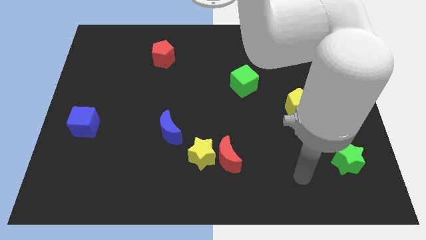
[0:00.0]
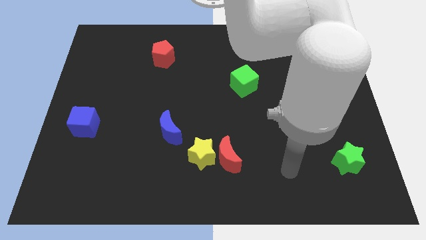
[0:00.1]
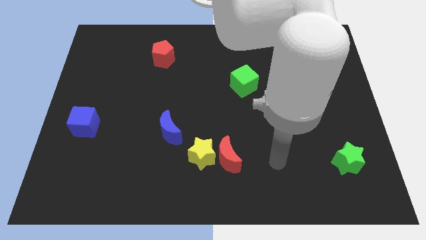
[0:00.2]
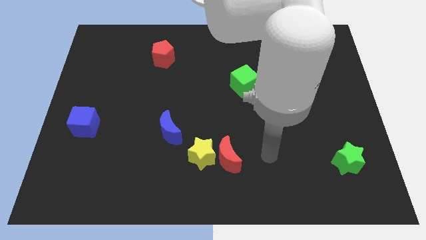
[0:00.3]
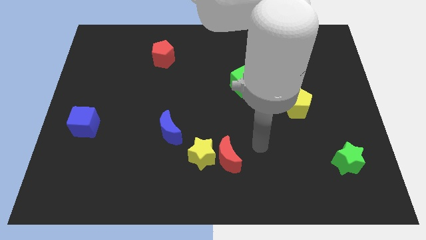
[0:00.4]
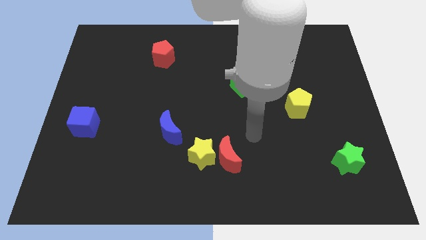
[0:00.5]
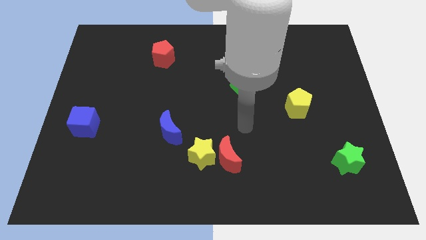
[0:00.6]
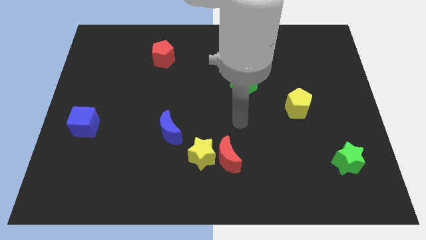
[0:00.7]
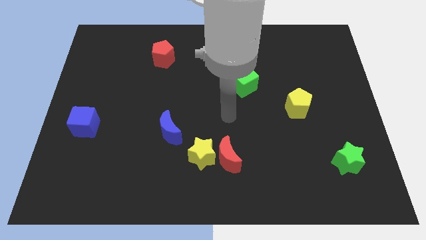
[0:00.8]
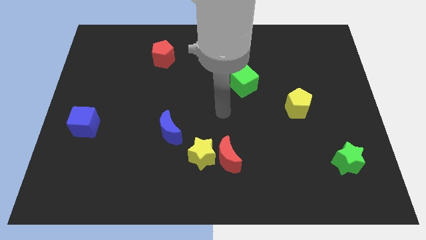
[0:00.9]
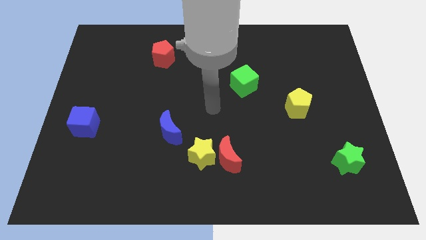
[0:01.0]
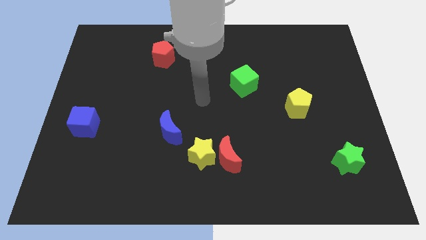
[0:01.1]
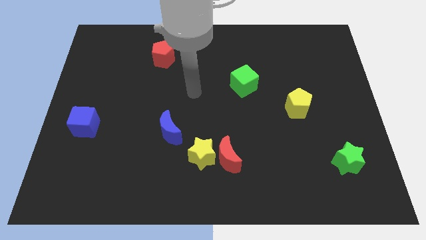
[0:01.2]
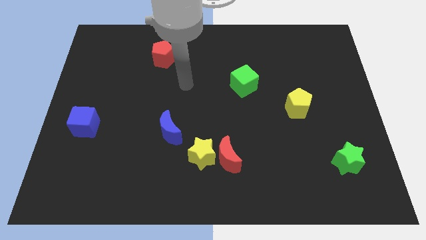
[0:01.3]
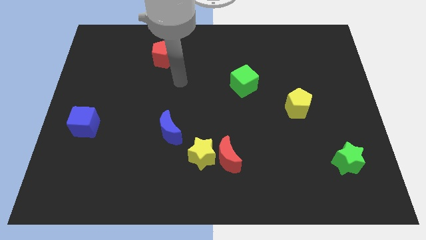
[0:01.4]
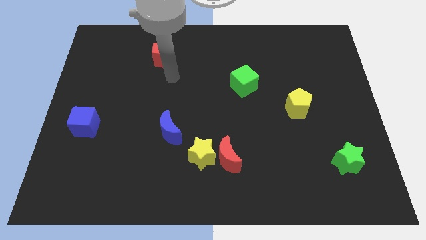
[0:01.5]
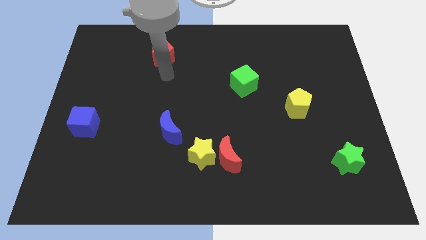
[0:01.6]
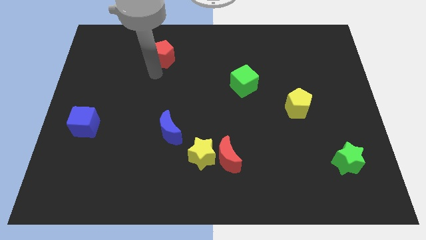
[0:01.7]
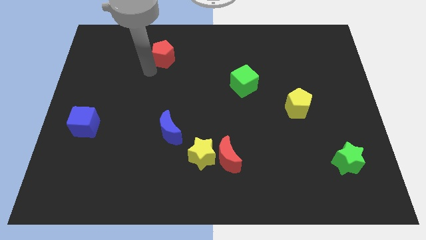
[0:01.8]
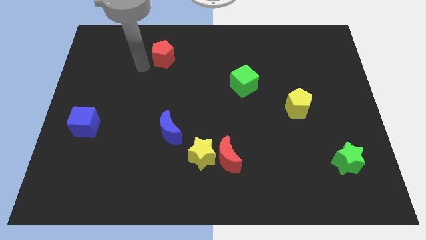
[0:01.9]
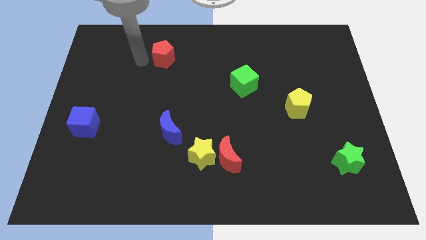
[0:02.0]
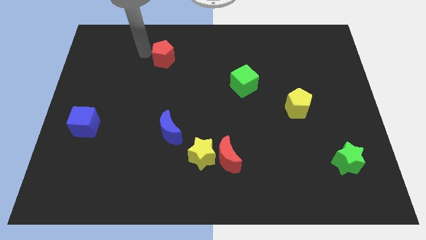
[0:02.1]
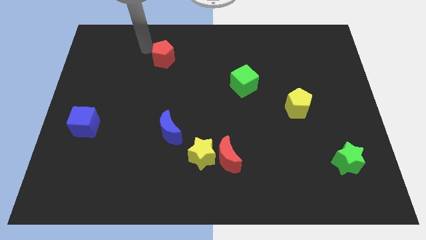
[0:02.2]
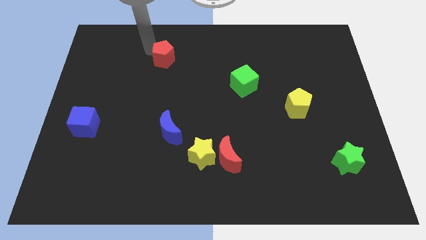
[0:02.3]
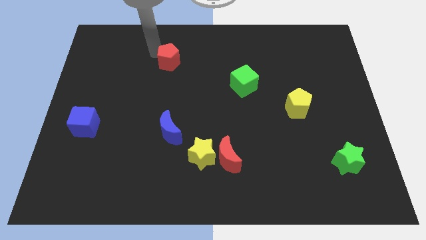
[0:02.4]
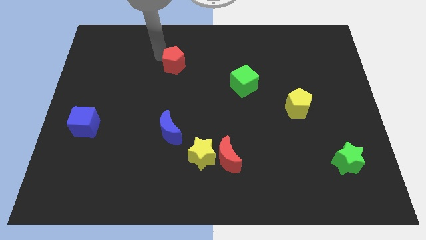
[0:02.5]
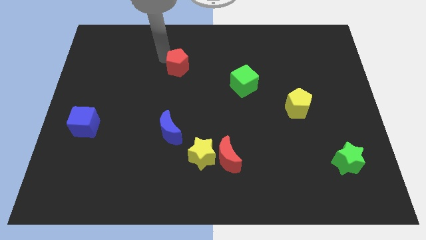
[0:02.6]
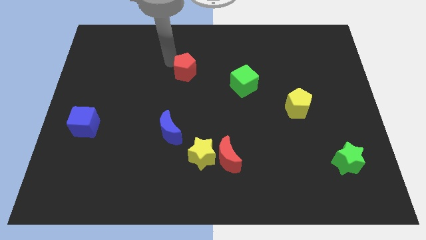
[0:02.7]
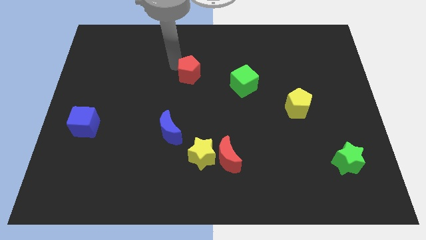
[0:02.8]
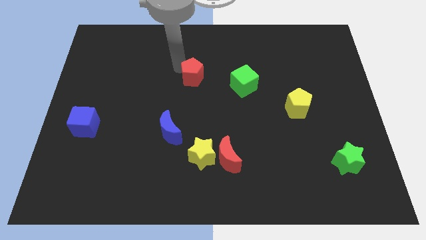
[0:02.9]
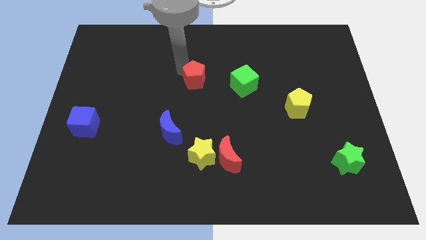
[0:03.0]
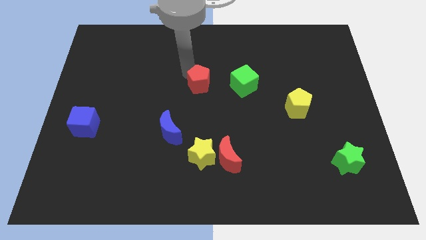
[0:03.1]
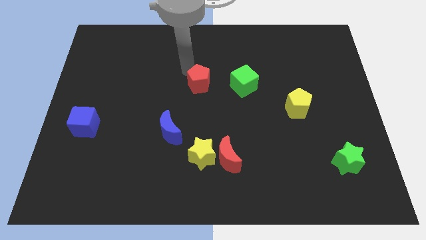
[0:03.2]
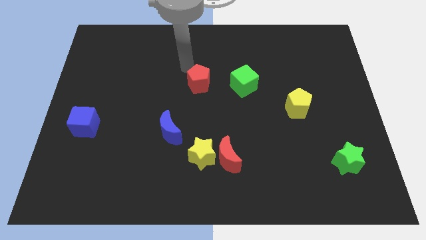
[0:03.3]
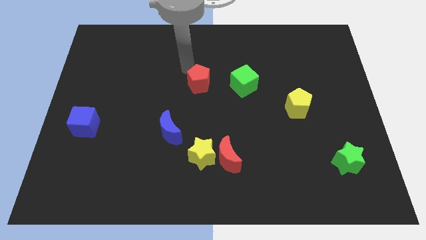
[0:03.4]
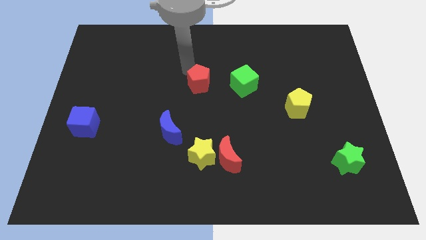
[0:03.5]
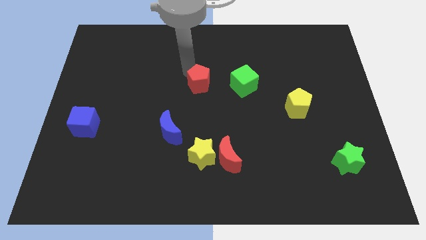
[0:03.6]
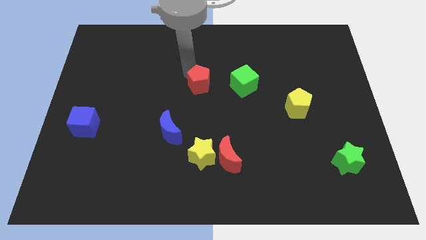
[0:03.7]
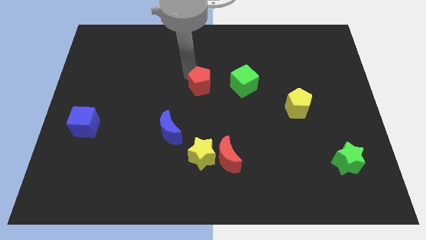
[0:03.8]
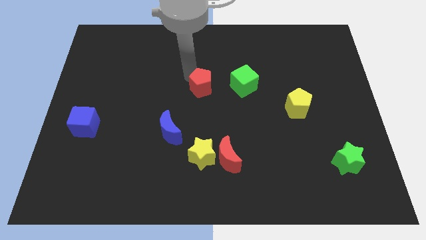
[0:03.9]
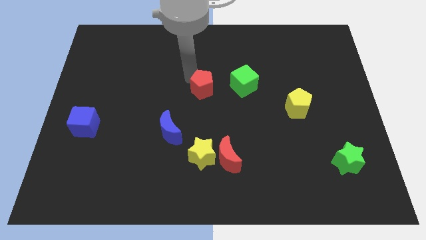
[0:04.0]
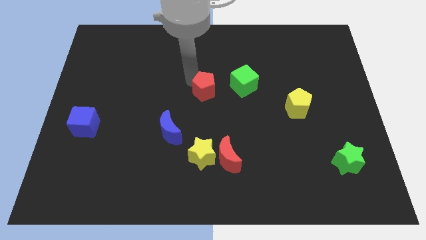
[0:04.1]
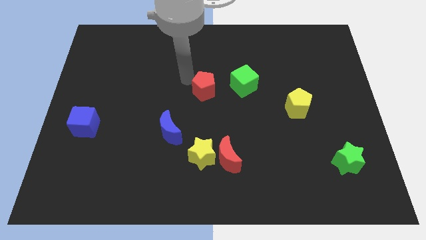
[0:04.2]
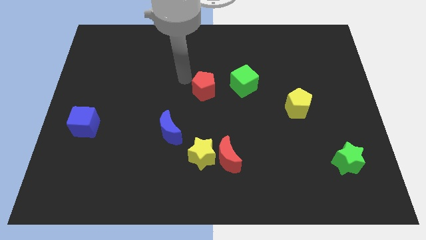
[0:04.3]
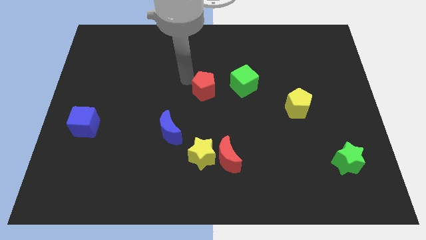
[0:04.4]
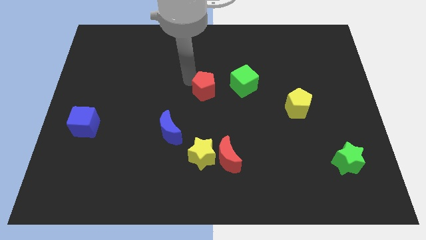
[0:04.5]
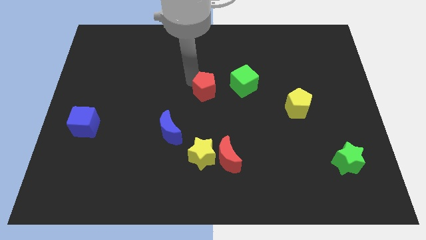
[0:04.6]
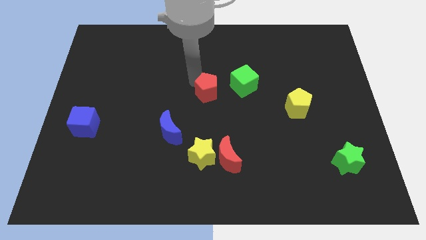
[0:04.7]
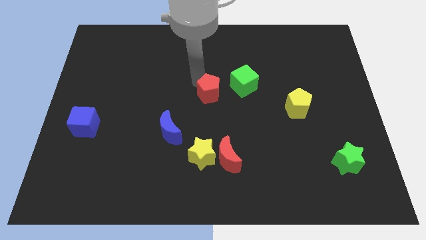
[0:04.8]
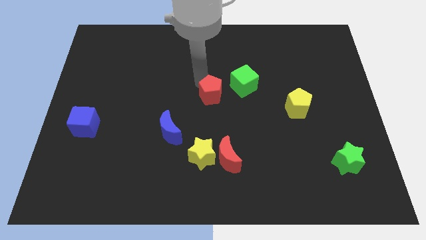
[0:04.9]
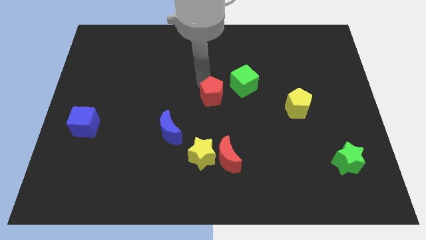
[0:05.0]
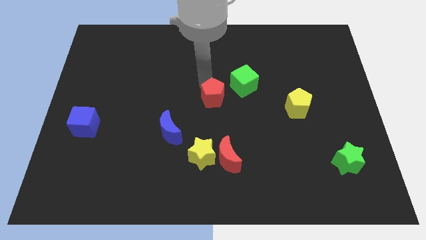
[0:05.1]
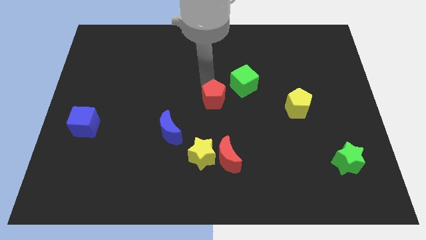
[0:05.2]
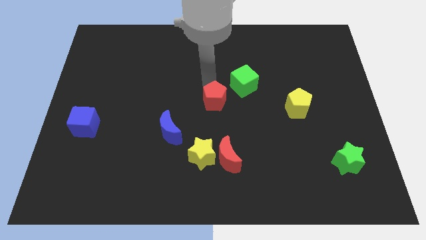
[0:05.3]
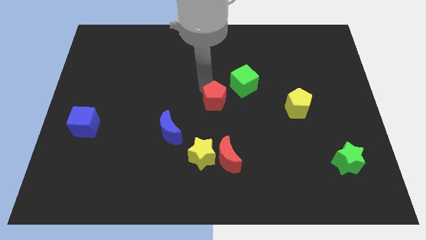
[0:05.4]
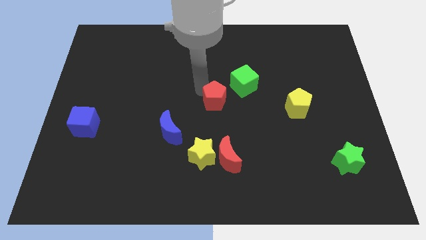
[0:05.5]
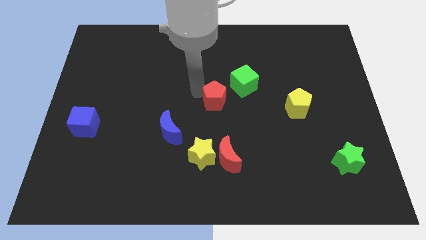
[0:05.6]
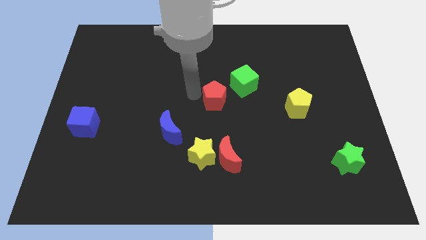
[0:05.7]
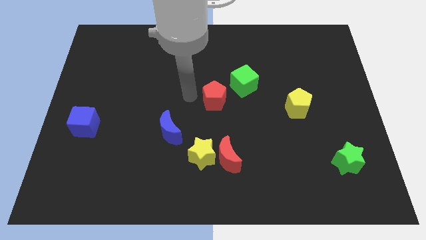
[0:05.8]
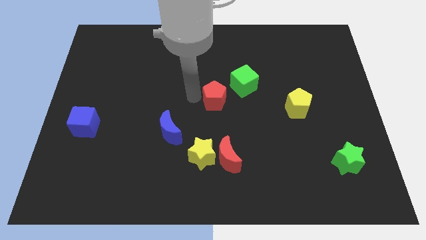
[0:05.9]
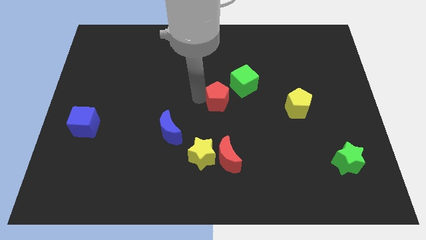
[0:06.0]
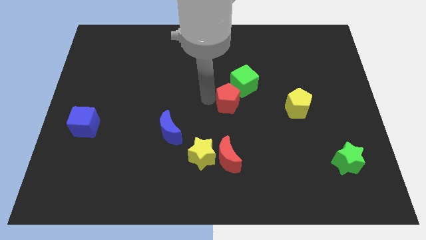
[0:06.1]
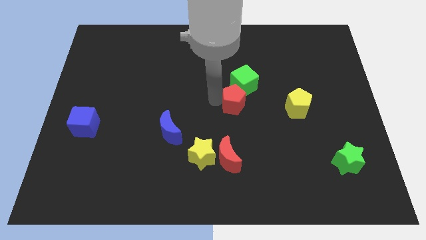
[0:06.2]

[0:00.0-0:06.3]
move the red pentagon left of the yellow pentagon
